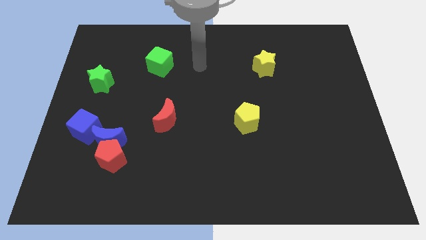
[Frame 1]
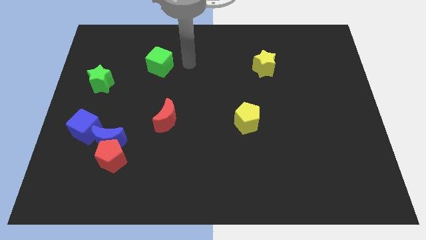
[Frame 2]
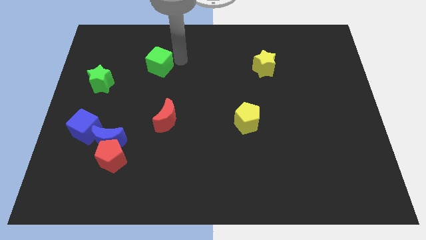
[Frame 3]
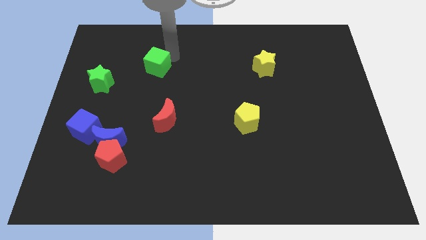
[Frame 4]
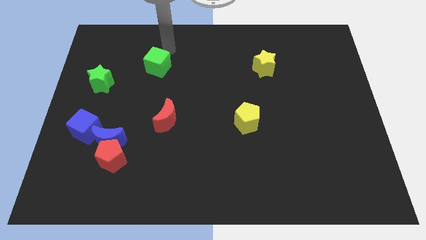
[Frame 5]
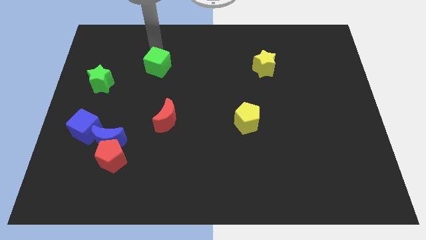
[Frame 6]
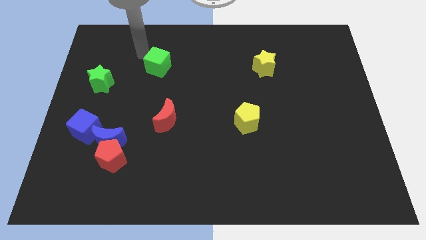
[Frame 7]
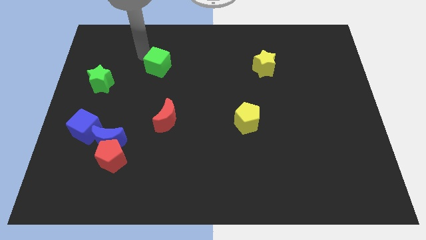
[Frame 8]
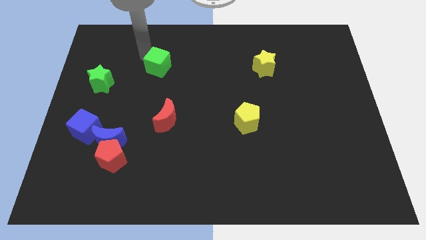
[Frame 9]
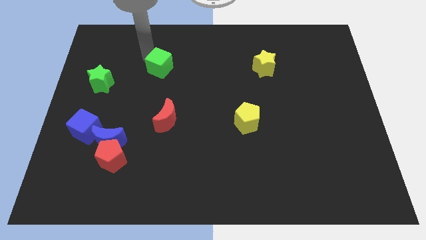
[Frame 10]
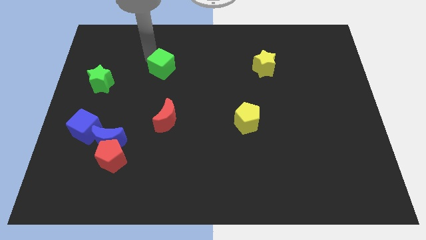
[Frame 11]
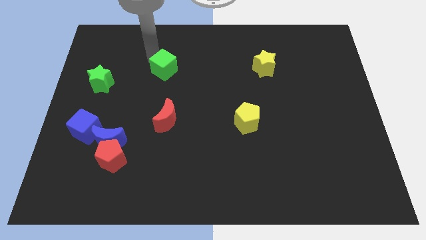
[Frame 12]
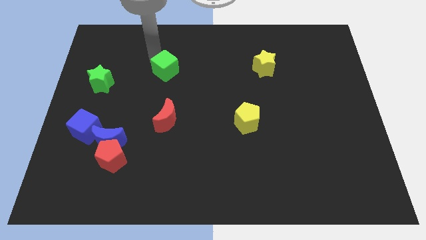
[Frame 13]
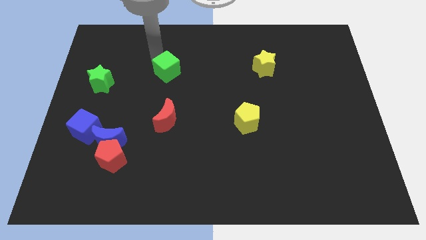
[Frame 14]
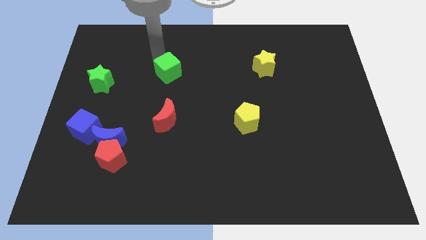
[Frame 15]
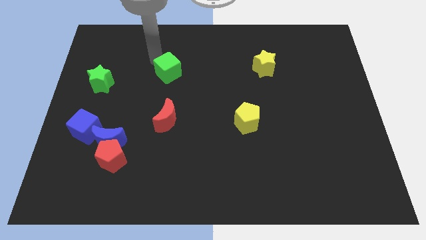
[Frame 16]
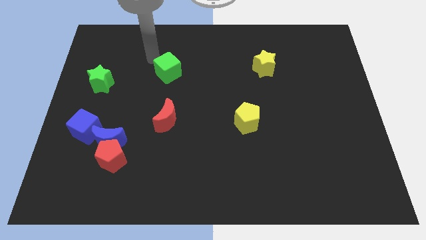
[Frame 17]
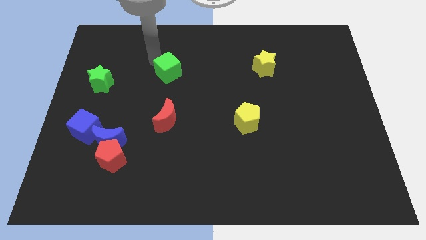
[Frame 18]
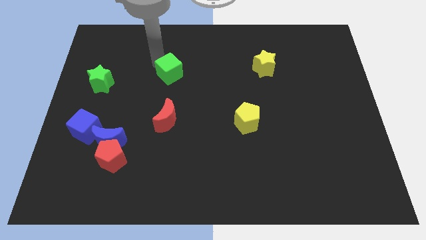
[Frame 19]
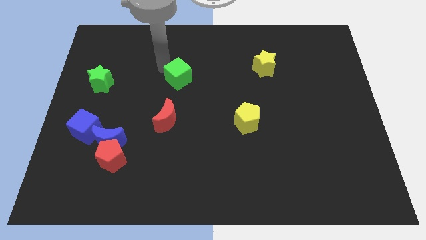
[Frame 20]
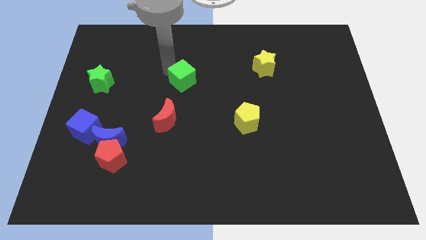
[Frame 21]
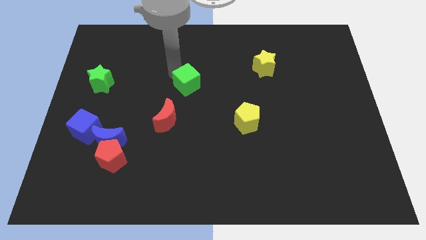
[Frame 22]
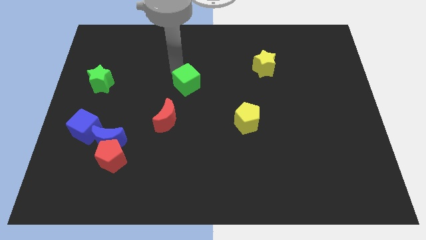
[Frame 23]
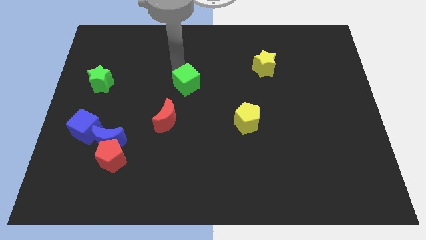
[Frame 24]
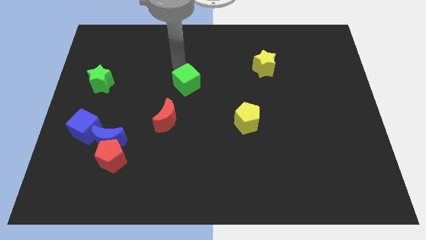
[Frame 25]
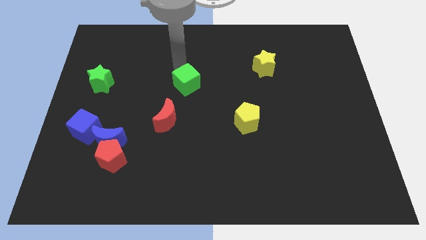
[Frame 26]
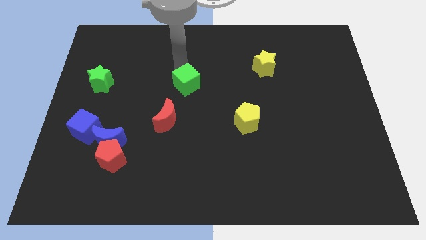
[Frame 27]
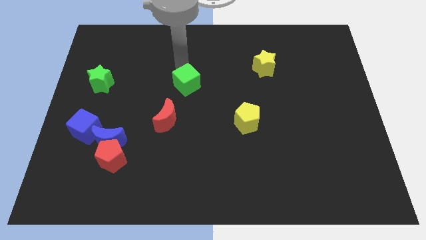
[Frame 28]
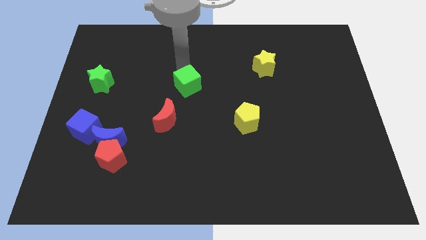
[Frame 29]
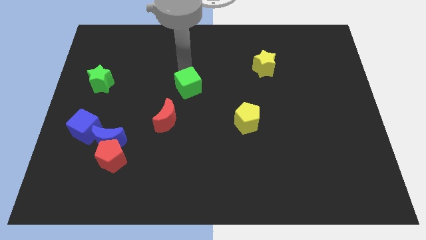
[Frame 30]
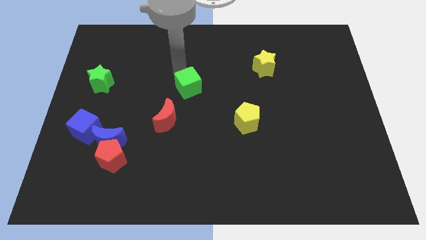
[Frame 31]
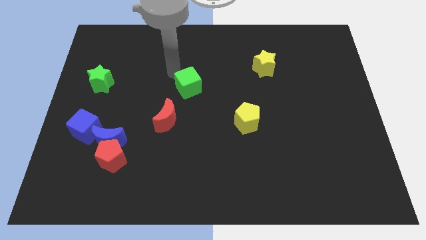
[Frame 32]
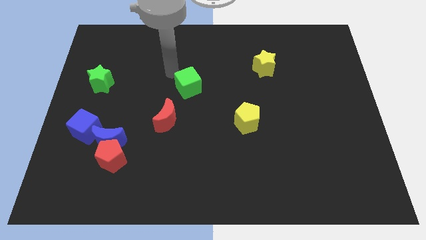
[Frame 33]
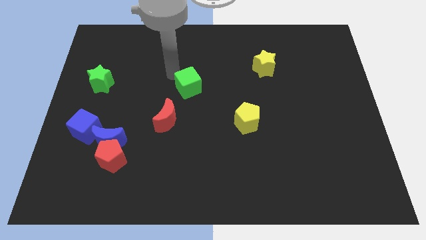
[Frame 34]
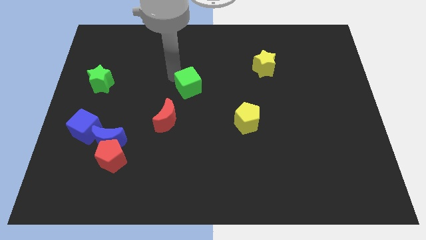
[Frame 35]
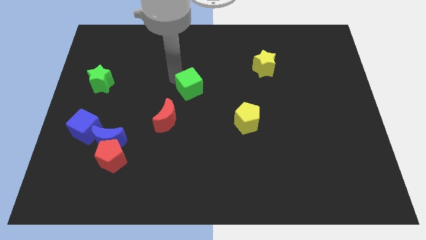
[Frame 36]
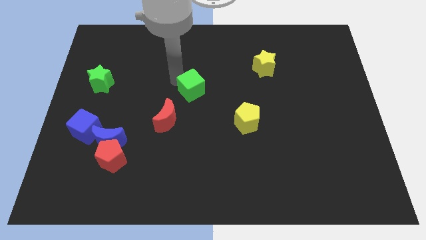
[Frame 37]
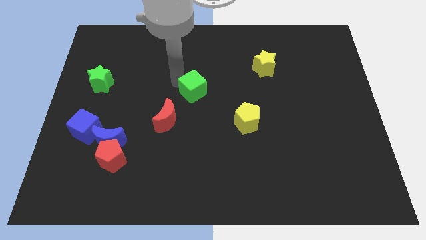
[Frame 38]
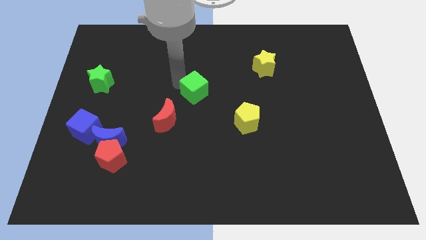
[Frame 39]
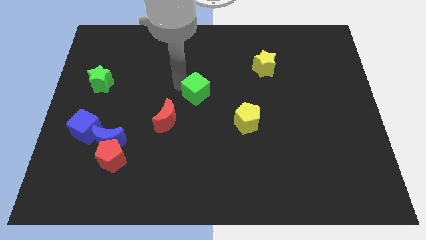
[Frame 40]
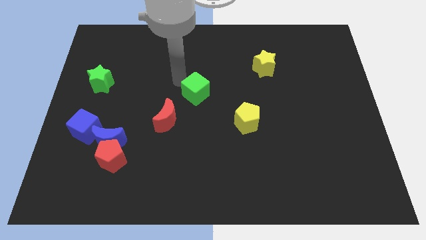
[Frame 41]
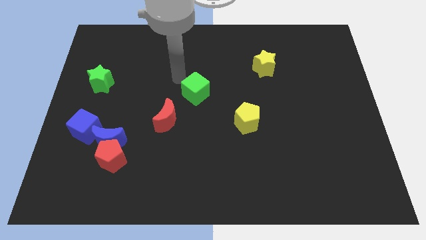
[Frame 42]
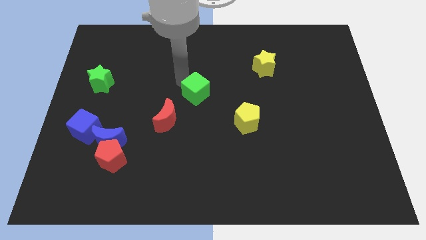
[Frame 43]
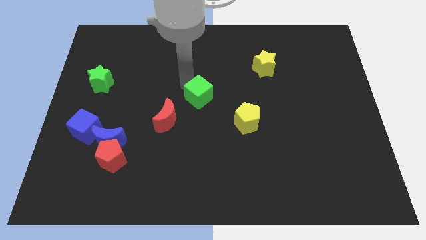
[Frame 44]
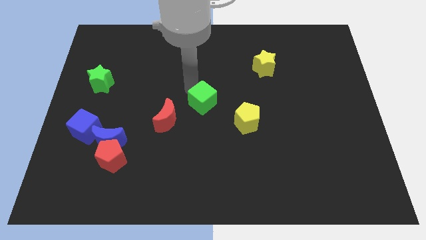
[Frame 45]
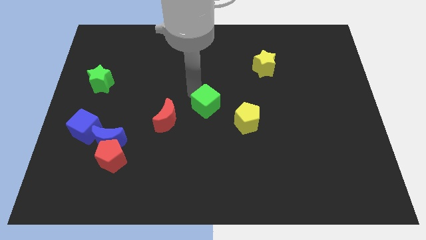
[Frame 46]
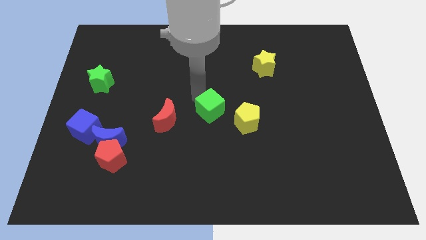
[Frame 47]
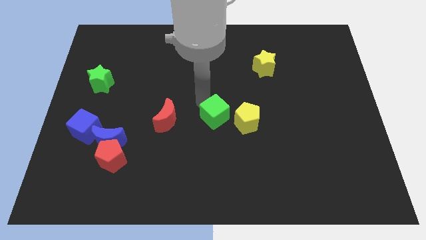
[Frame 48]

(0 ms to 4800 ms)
push the green cube downwards and right diagonally

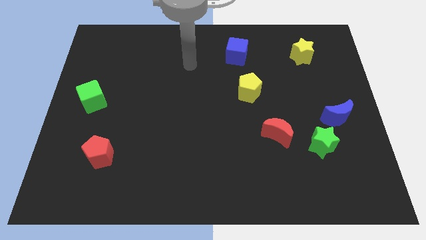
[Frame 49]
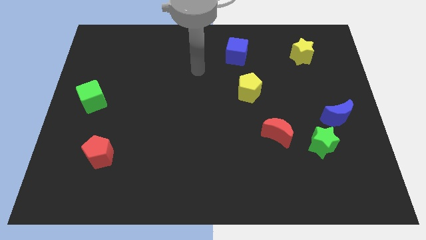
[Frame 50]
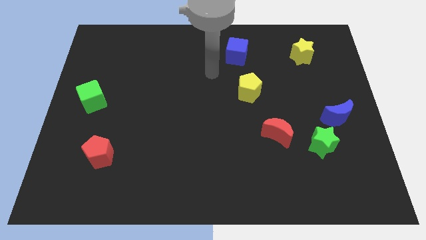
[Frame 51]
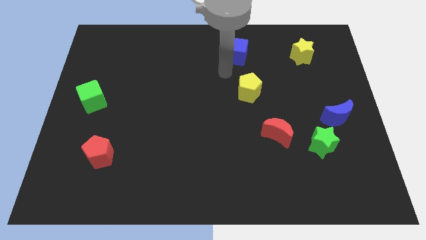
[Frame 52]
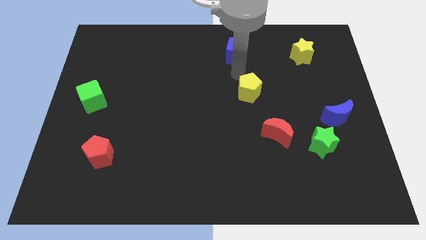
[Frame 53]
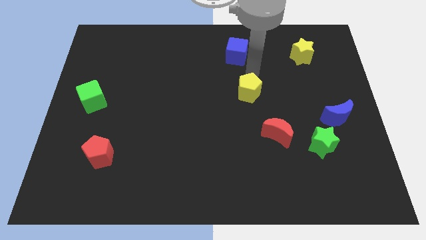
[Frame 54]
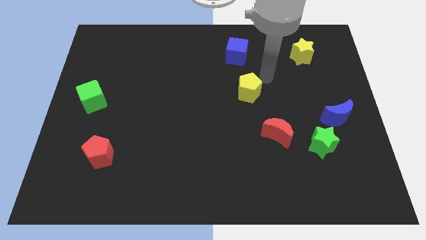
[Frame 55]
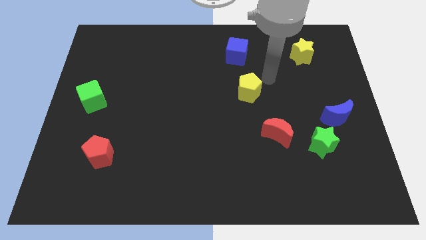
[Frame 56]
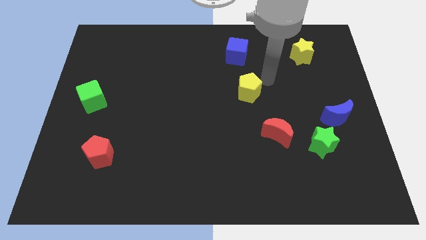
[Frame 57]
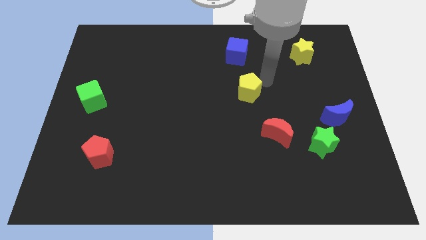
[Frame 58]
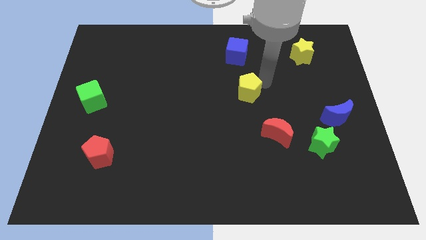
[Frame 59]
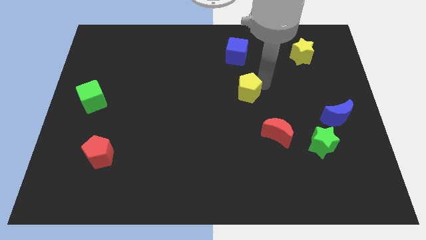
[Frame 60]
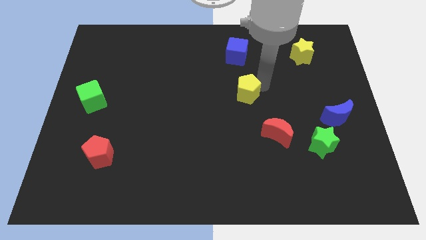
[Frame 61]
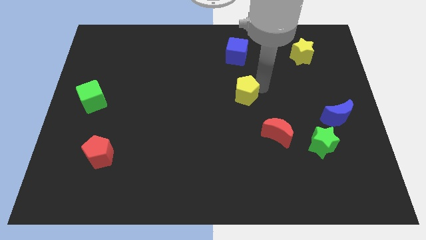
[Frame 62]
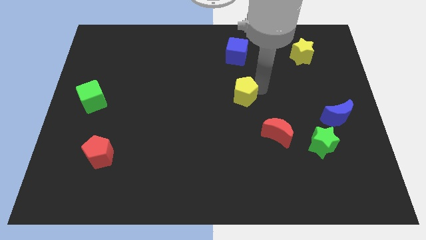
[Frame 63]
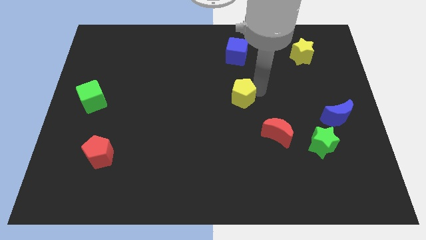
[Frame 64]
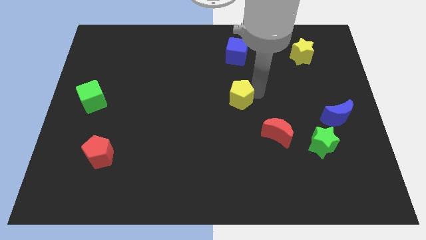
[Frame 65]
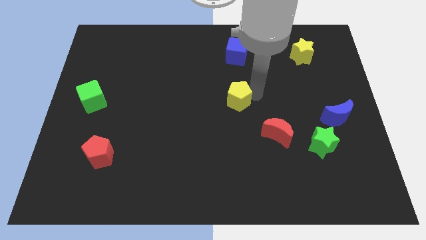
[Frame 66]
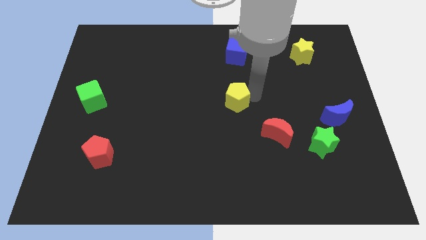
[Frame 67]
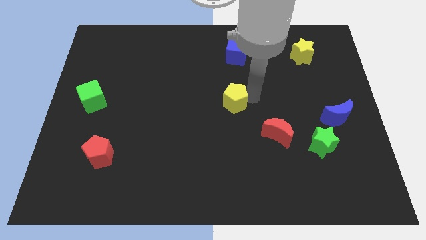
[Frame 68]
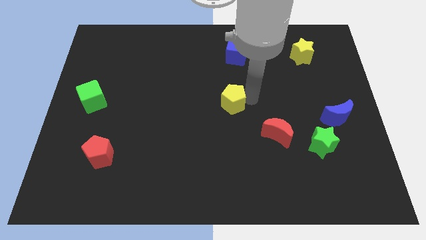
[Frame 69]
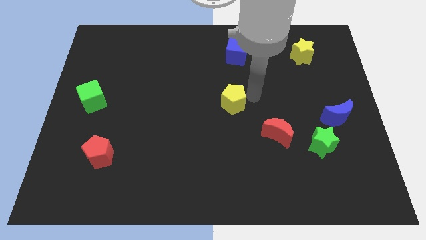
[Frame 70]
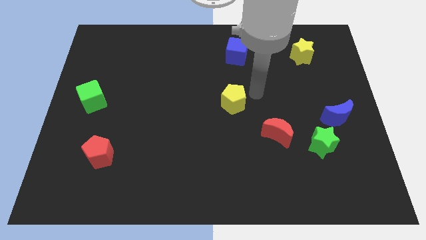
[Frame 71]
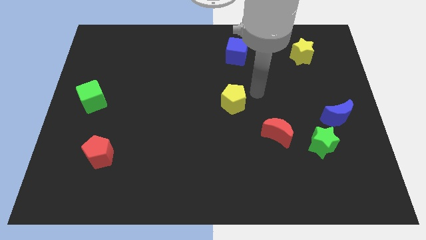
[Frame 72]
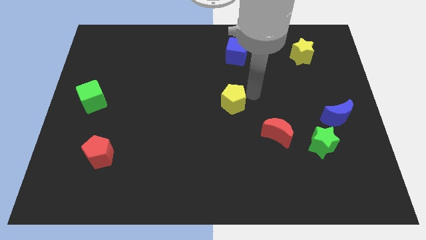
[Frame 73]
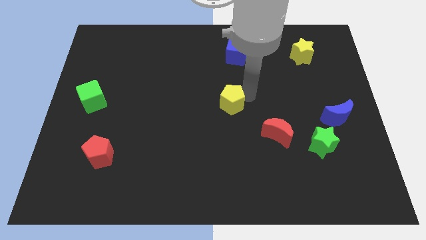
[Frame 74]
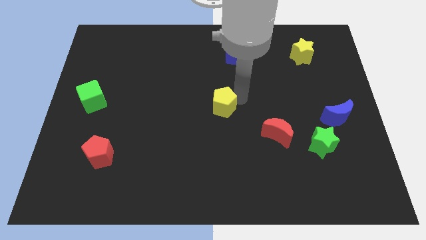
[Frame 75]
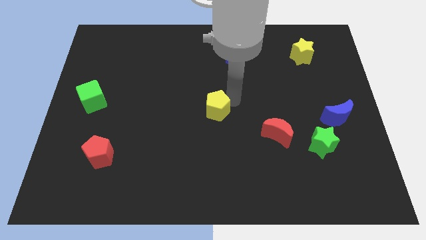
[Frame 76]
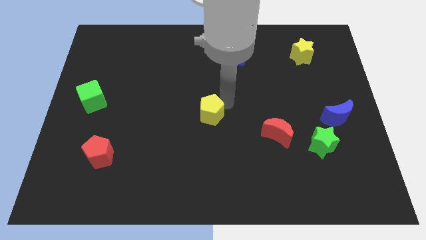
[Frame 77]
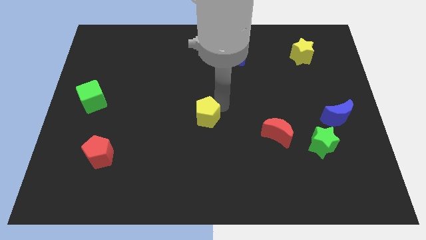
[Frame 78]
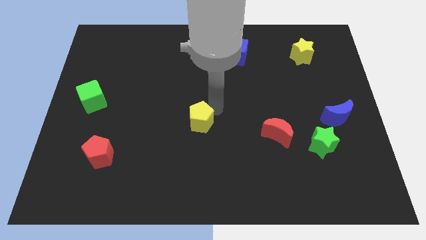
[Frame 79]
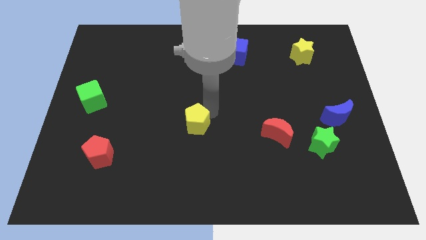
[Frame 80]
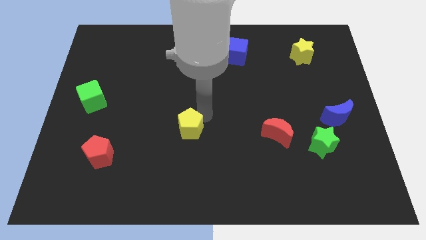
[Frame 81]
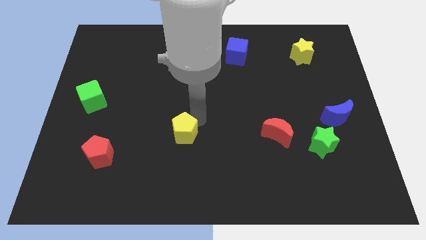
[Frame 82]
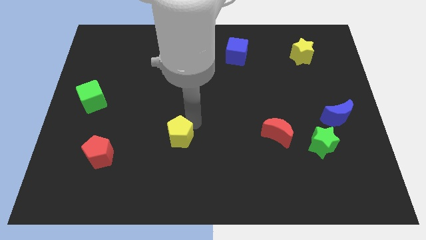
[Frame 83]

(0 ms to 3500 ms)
slide the yellow pentagon down and then left
